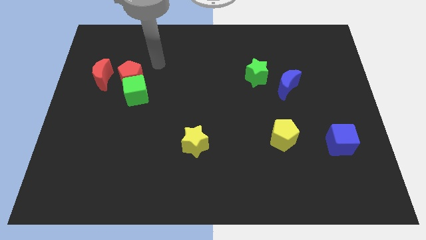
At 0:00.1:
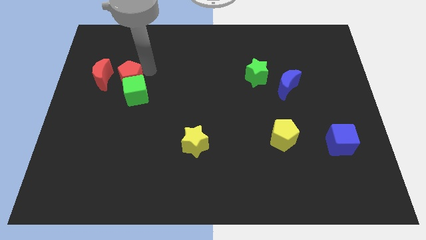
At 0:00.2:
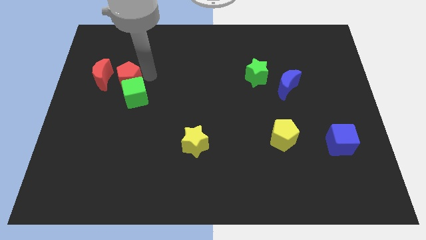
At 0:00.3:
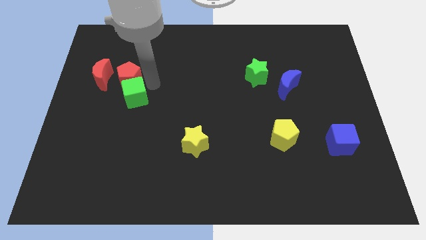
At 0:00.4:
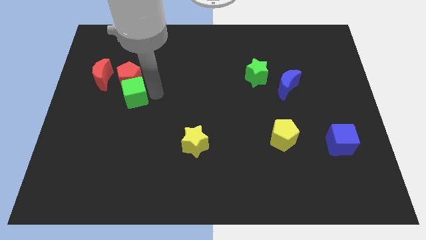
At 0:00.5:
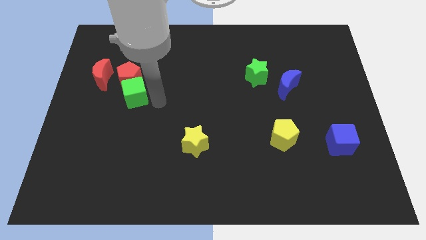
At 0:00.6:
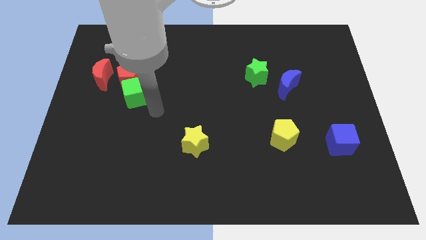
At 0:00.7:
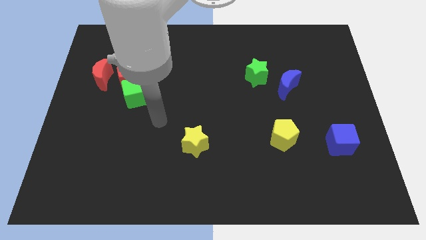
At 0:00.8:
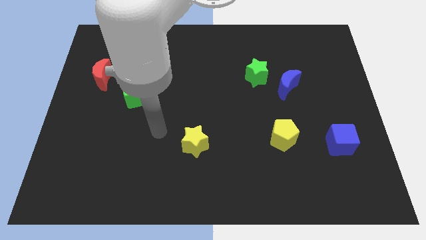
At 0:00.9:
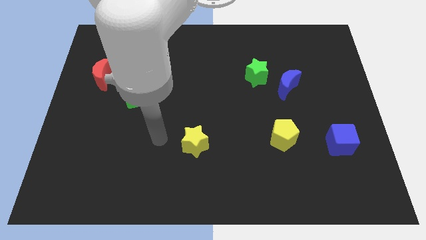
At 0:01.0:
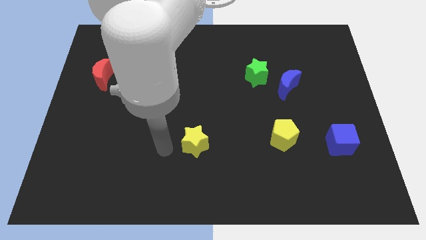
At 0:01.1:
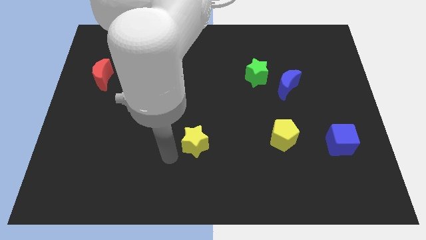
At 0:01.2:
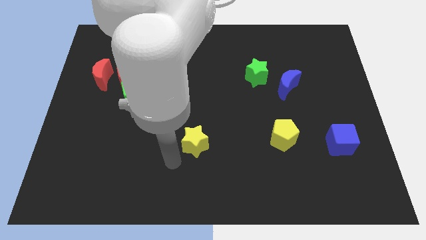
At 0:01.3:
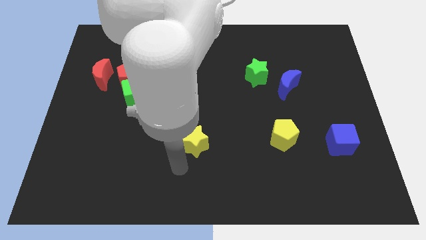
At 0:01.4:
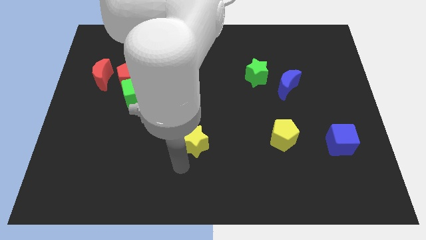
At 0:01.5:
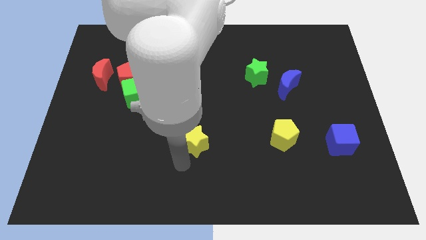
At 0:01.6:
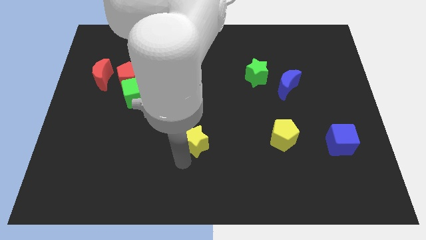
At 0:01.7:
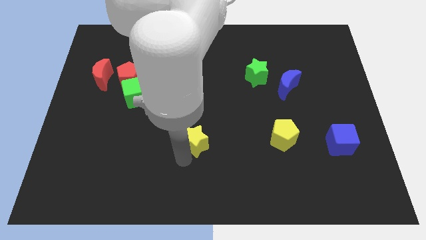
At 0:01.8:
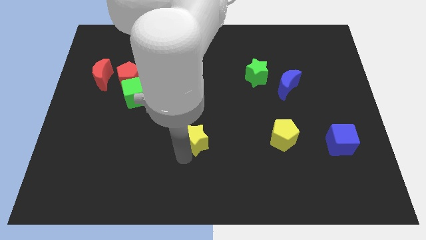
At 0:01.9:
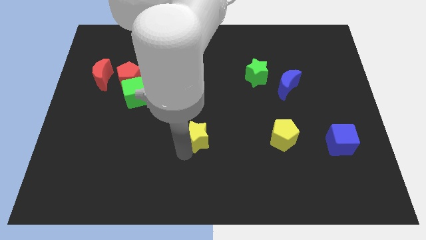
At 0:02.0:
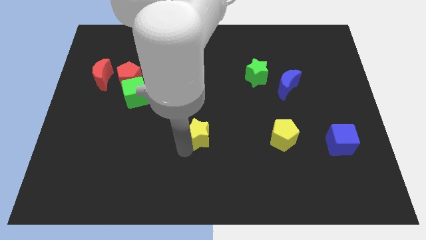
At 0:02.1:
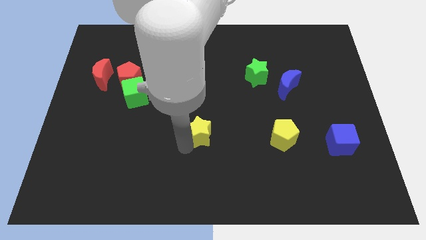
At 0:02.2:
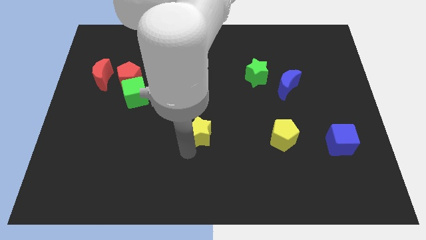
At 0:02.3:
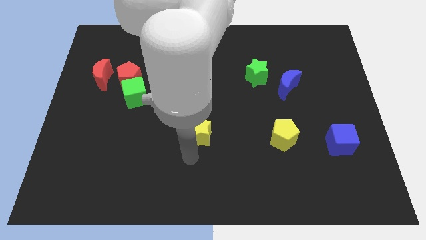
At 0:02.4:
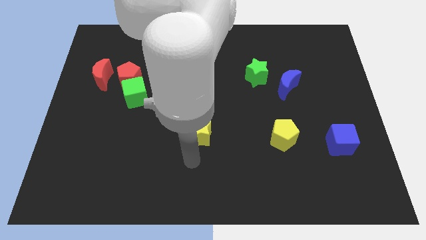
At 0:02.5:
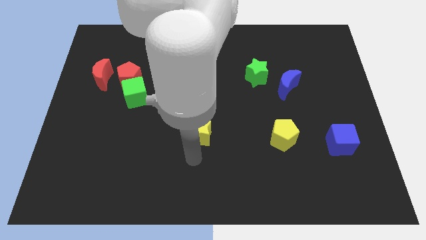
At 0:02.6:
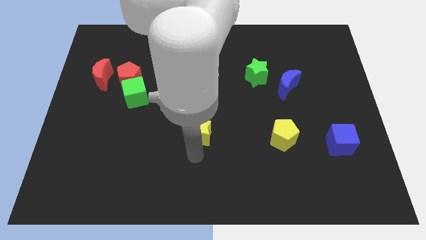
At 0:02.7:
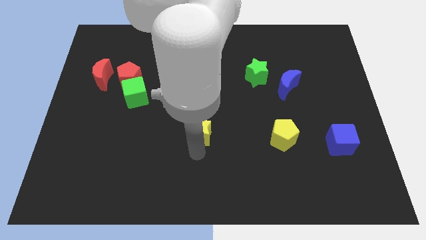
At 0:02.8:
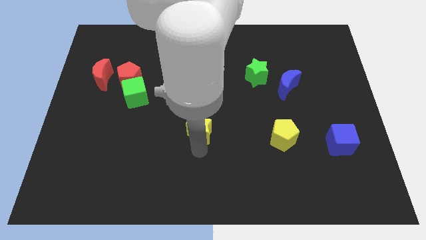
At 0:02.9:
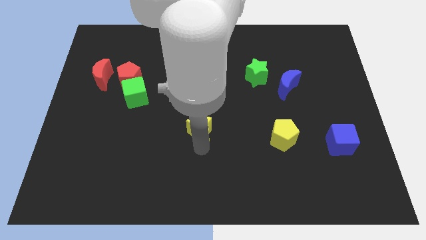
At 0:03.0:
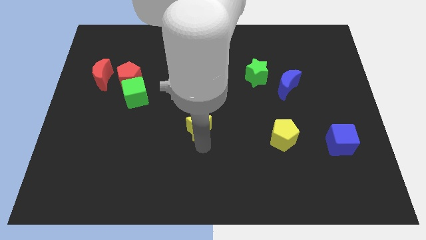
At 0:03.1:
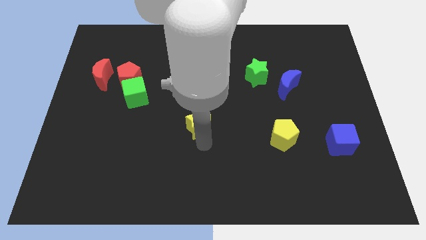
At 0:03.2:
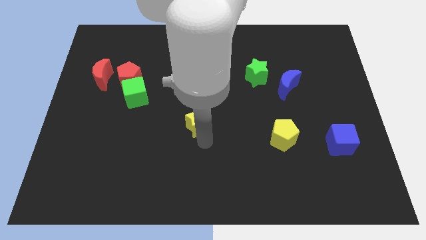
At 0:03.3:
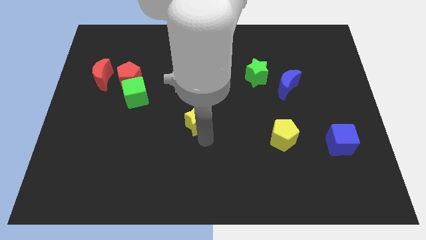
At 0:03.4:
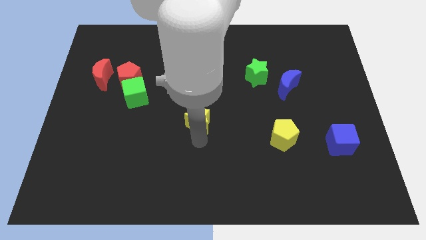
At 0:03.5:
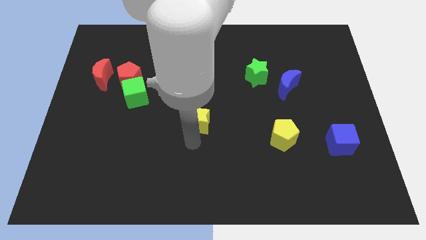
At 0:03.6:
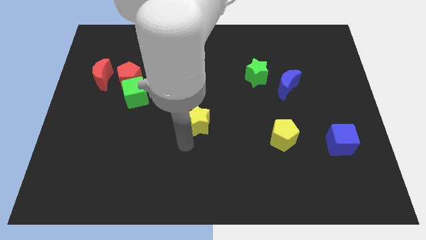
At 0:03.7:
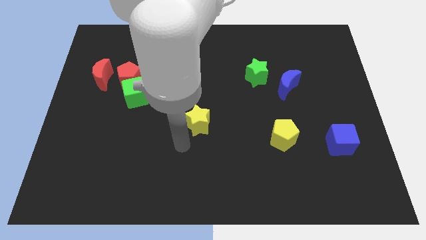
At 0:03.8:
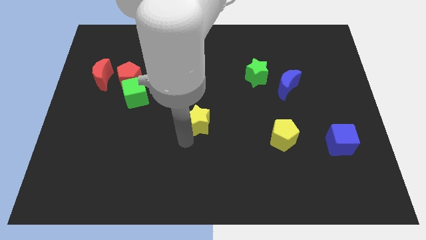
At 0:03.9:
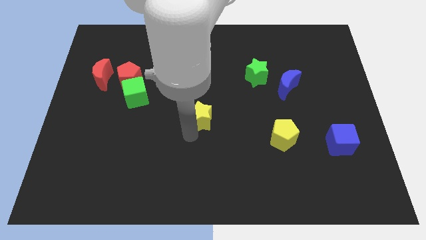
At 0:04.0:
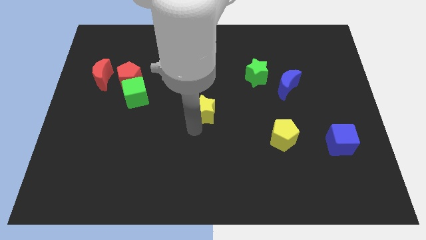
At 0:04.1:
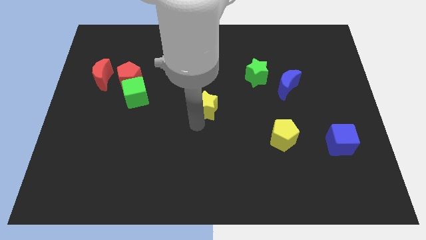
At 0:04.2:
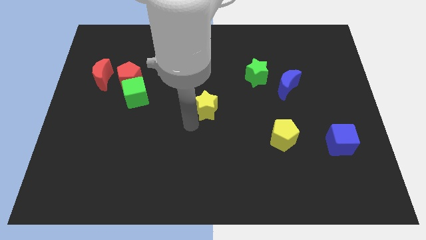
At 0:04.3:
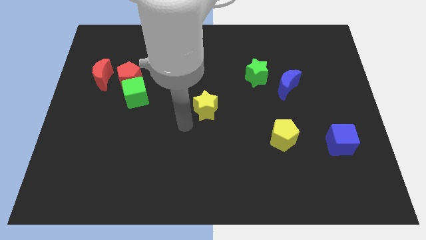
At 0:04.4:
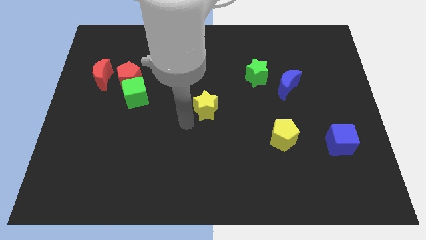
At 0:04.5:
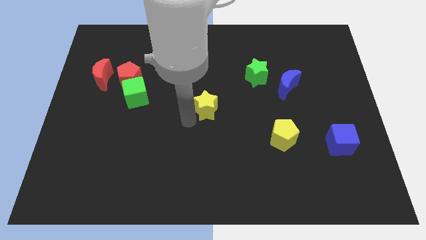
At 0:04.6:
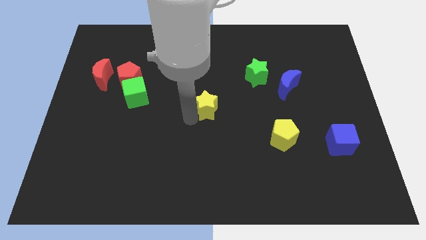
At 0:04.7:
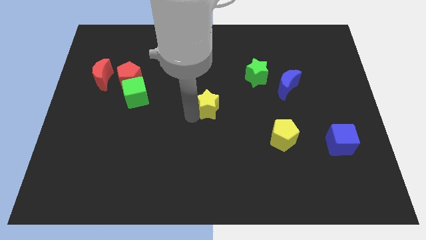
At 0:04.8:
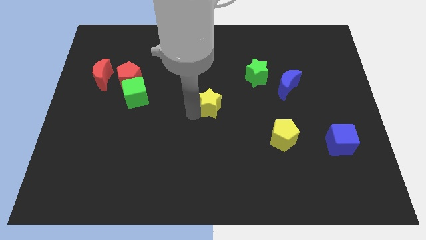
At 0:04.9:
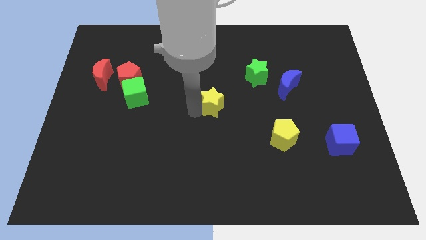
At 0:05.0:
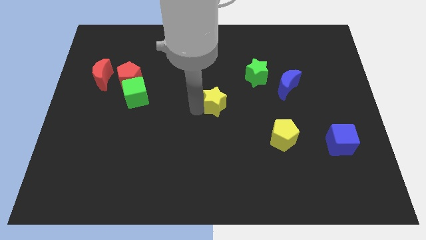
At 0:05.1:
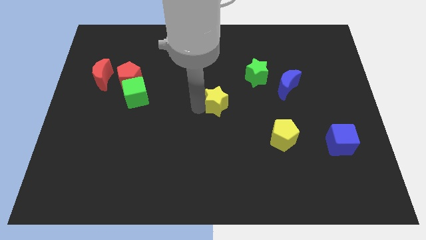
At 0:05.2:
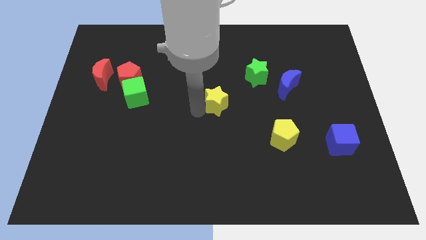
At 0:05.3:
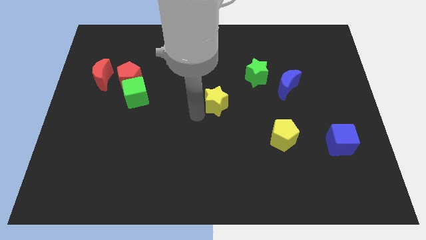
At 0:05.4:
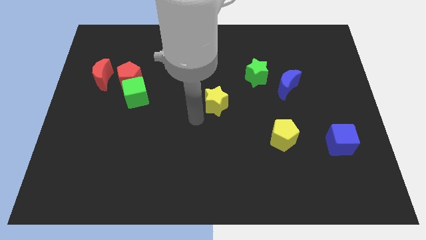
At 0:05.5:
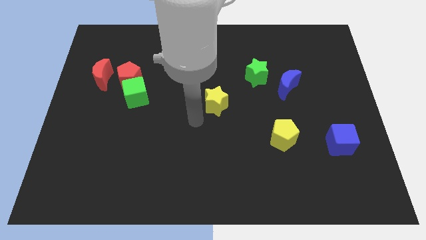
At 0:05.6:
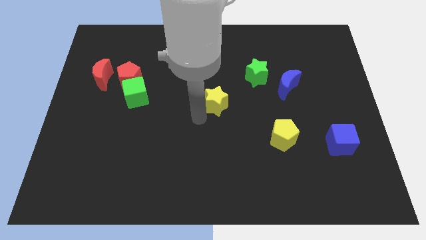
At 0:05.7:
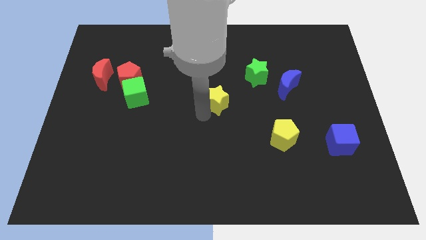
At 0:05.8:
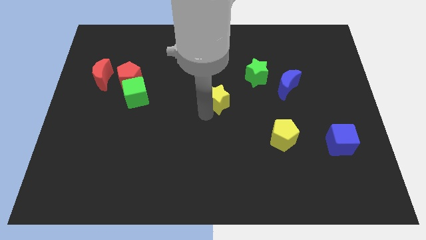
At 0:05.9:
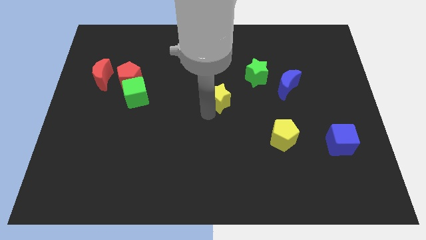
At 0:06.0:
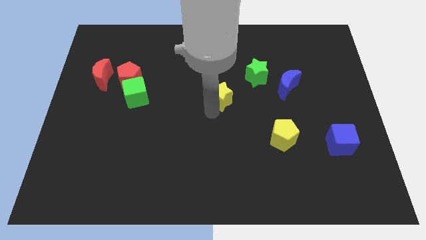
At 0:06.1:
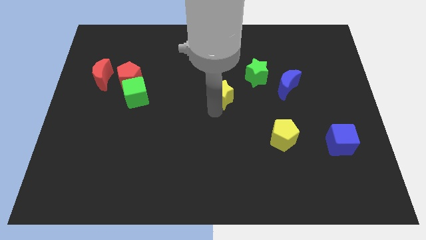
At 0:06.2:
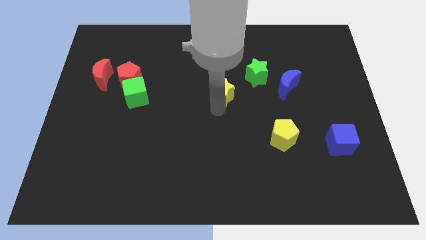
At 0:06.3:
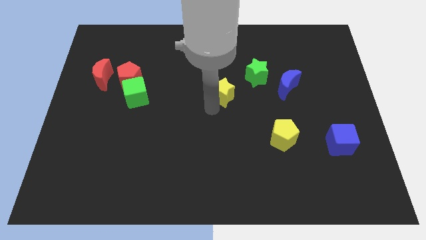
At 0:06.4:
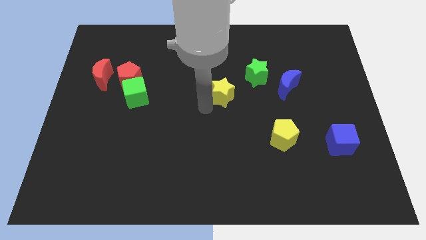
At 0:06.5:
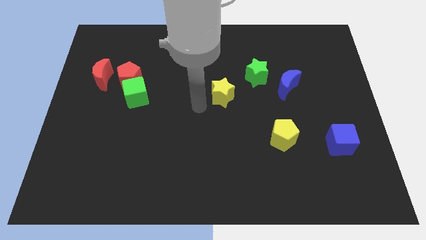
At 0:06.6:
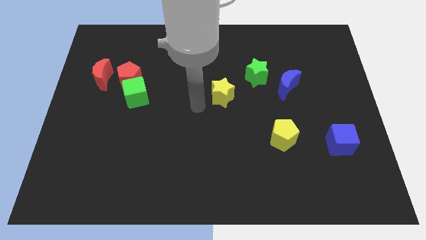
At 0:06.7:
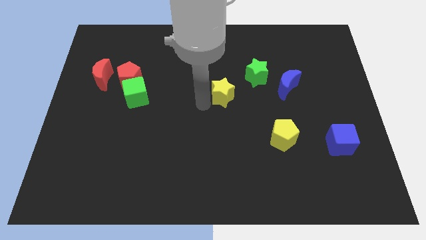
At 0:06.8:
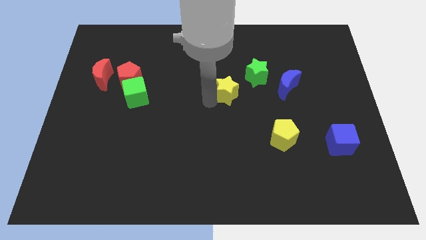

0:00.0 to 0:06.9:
push the yellow star to the left of the blue moon
